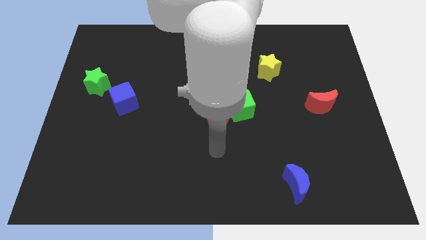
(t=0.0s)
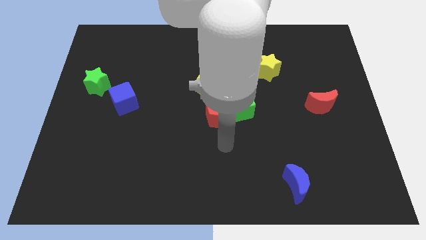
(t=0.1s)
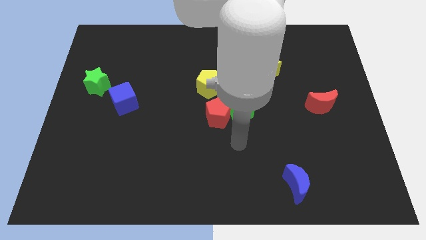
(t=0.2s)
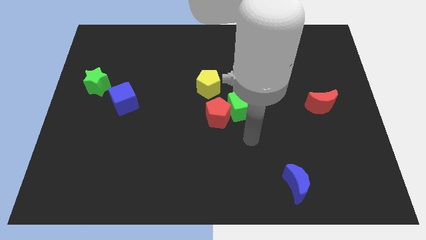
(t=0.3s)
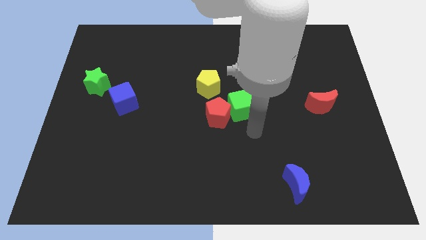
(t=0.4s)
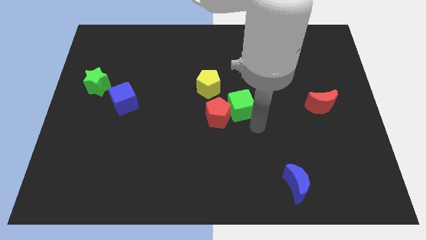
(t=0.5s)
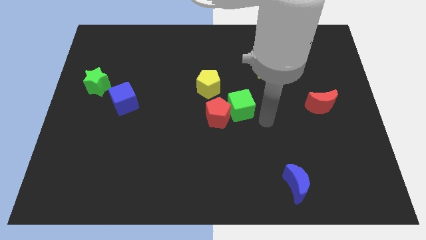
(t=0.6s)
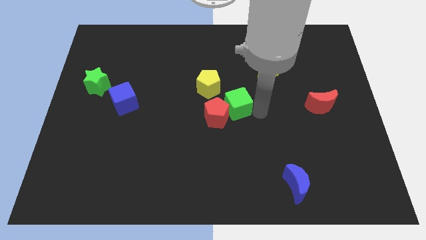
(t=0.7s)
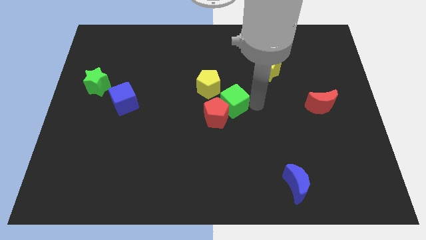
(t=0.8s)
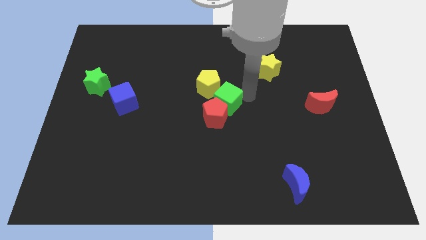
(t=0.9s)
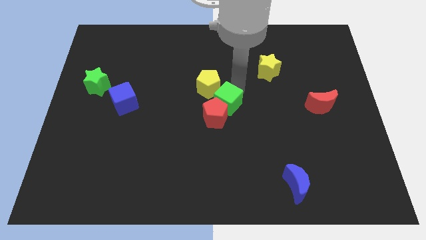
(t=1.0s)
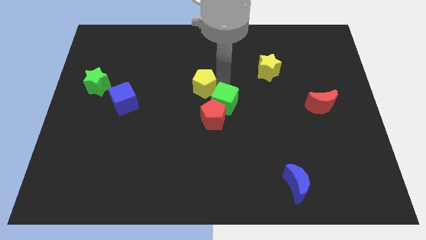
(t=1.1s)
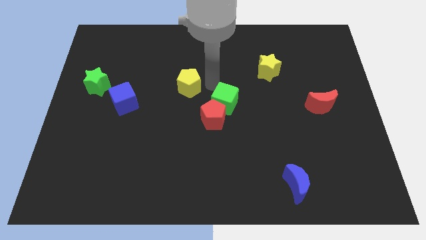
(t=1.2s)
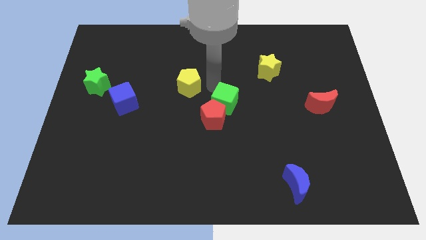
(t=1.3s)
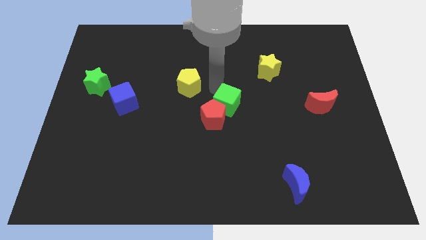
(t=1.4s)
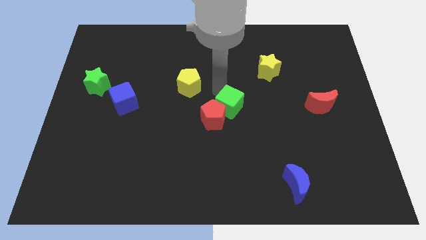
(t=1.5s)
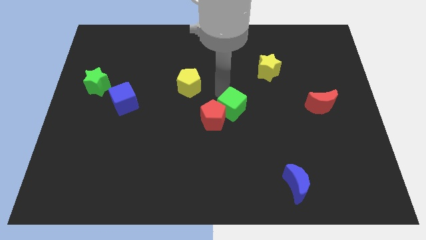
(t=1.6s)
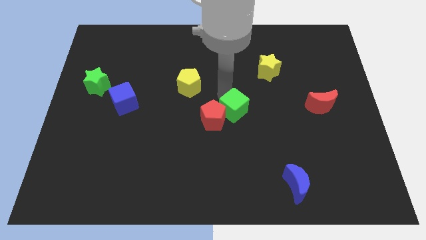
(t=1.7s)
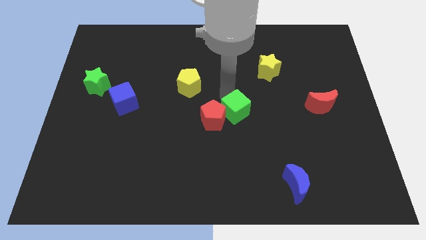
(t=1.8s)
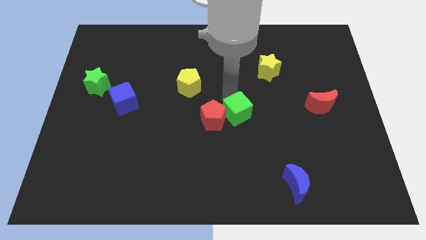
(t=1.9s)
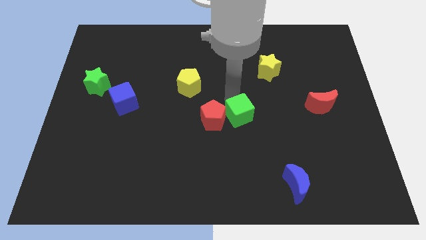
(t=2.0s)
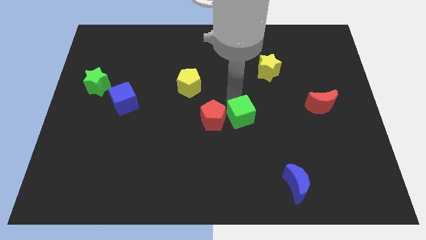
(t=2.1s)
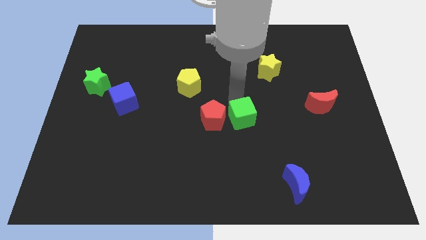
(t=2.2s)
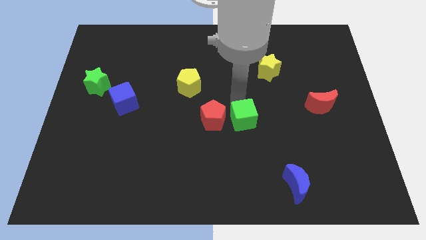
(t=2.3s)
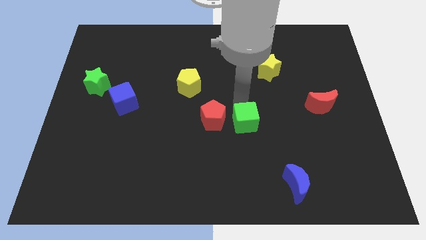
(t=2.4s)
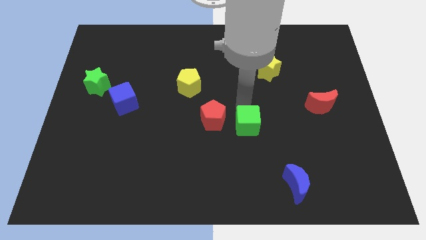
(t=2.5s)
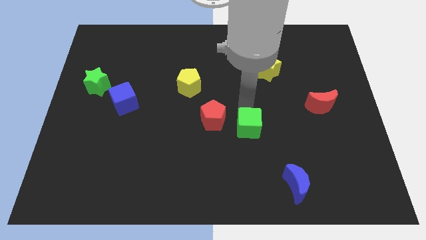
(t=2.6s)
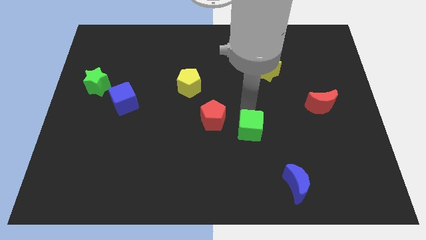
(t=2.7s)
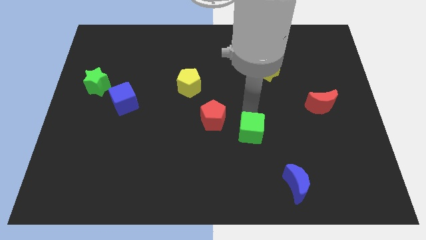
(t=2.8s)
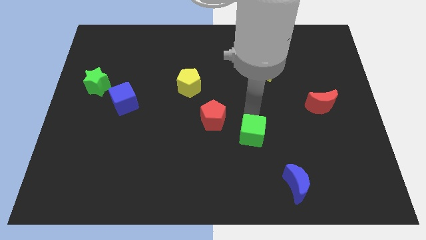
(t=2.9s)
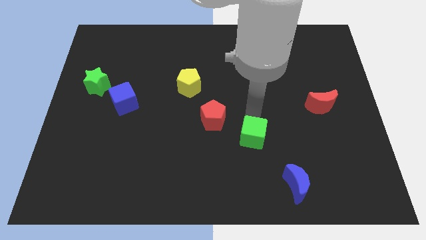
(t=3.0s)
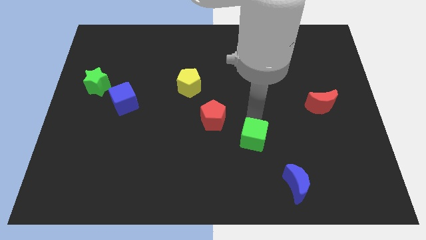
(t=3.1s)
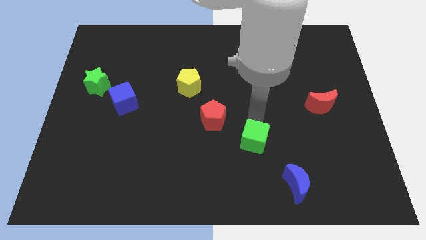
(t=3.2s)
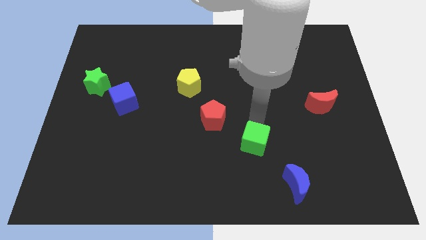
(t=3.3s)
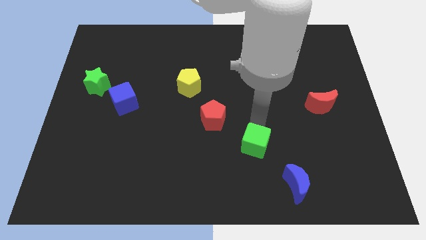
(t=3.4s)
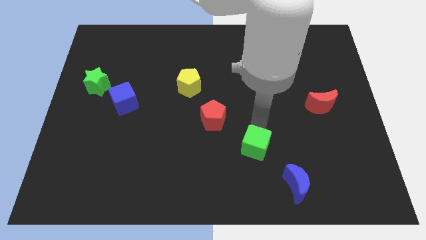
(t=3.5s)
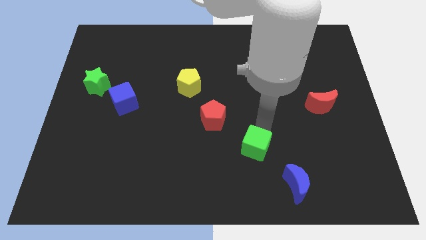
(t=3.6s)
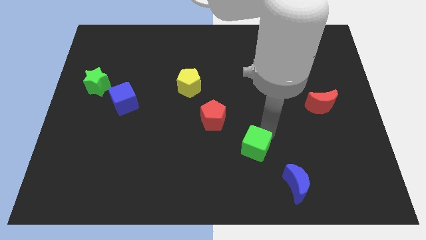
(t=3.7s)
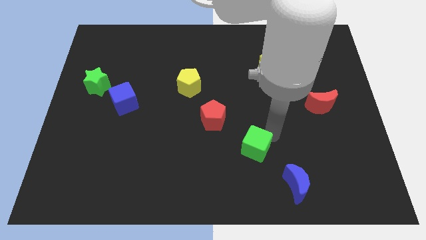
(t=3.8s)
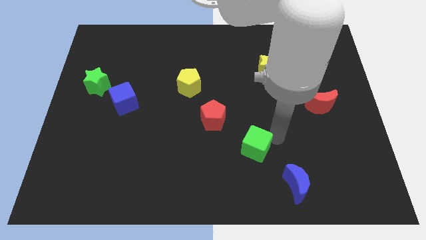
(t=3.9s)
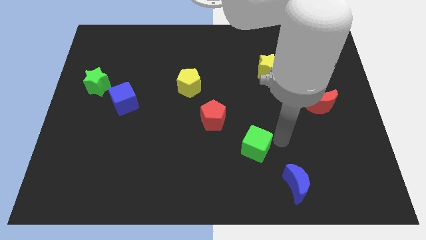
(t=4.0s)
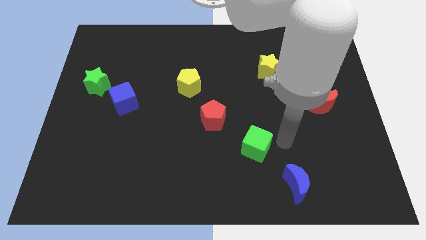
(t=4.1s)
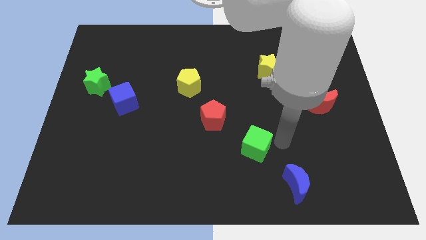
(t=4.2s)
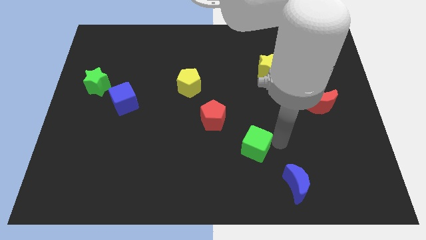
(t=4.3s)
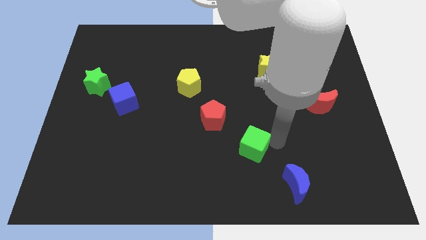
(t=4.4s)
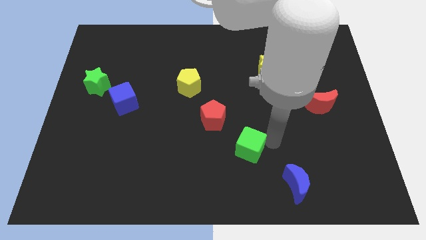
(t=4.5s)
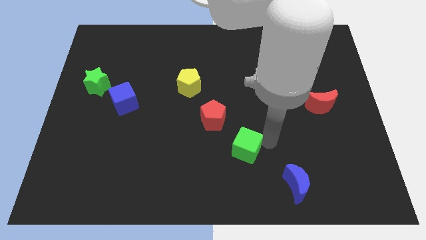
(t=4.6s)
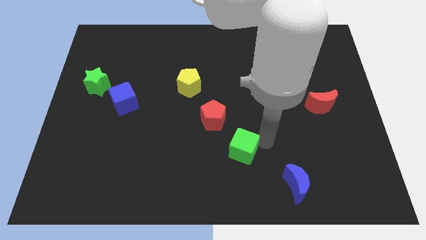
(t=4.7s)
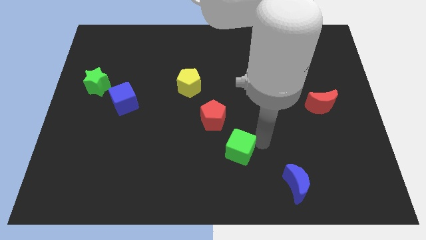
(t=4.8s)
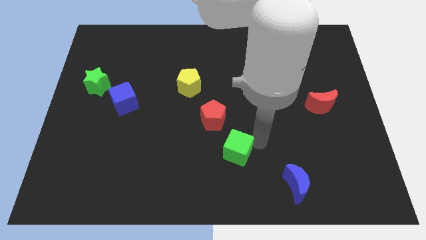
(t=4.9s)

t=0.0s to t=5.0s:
slide the green cube downwards and left diagonally a bit

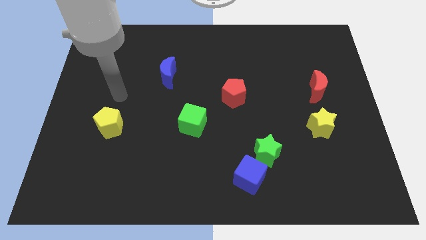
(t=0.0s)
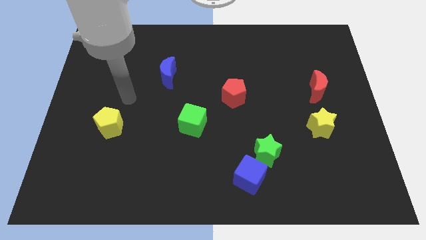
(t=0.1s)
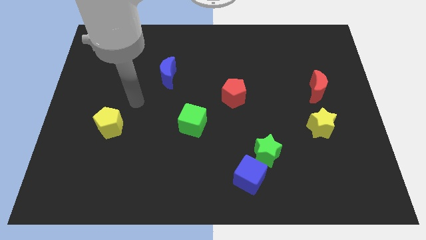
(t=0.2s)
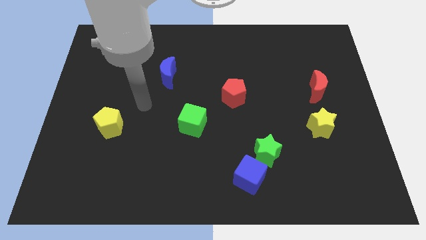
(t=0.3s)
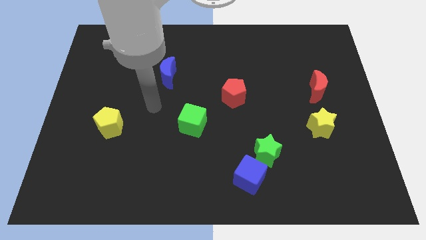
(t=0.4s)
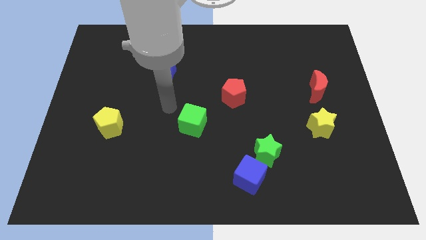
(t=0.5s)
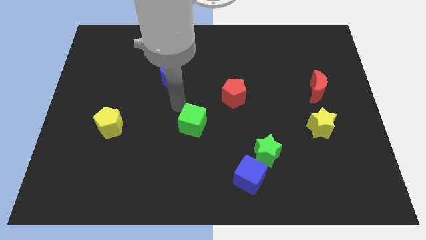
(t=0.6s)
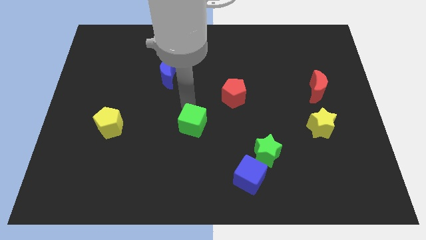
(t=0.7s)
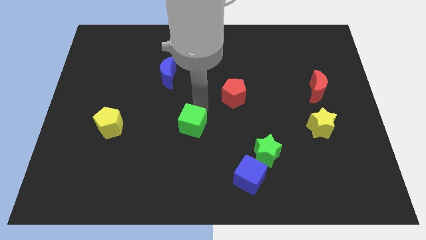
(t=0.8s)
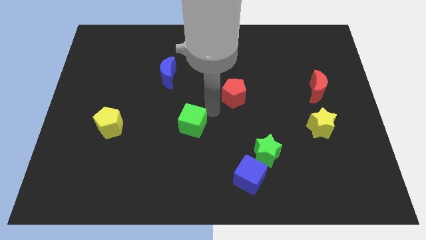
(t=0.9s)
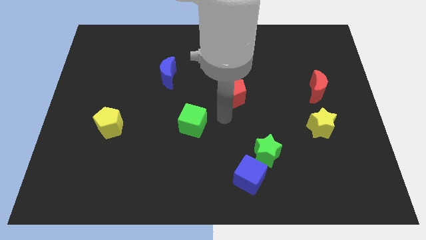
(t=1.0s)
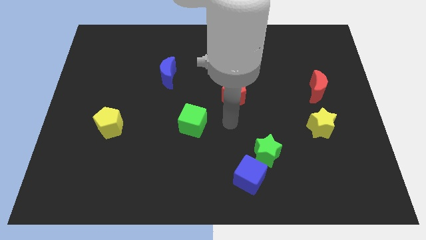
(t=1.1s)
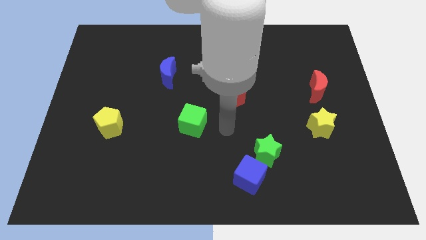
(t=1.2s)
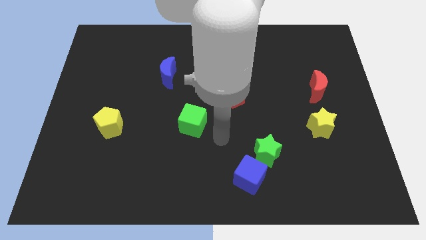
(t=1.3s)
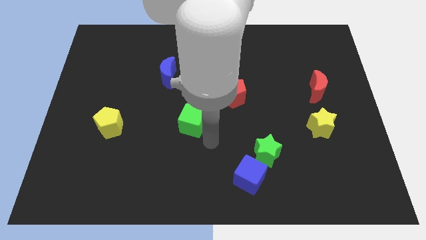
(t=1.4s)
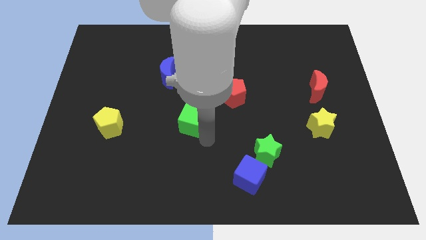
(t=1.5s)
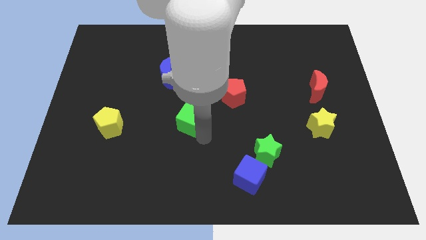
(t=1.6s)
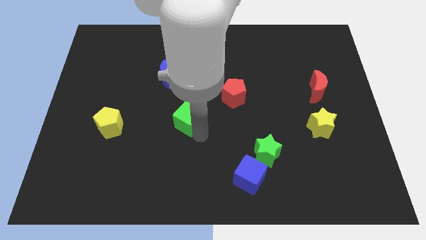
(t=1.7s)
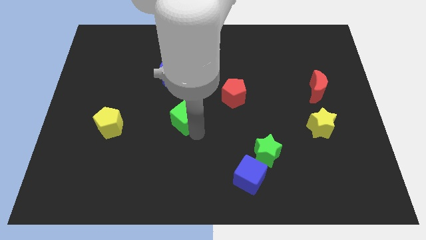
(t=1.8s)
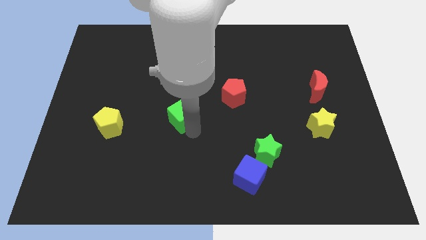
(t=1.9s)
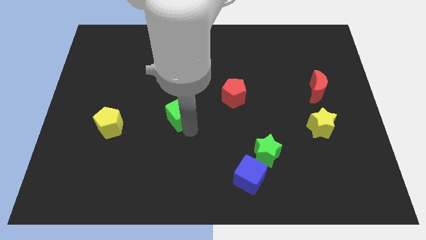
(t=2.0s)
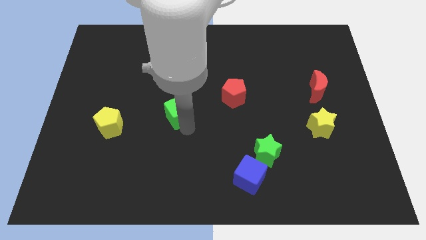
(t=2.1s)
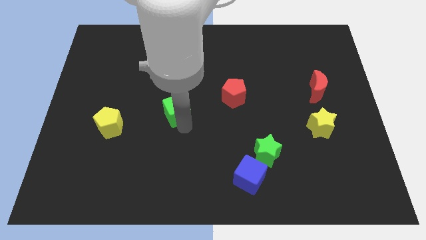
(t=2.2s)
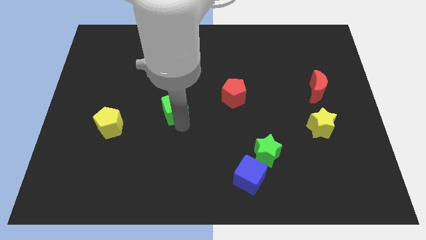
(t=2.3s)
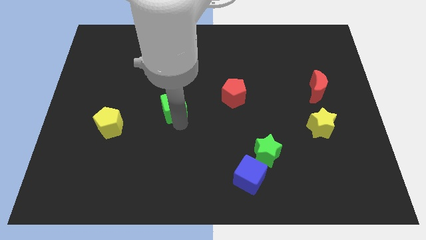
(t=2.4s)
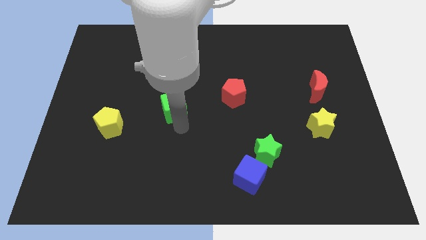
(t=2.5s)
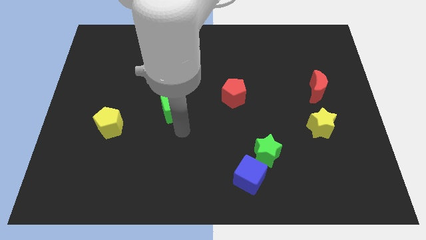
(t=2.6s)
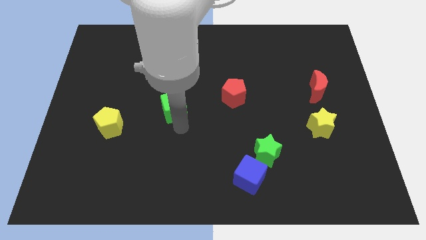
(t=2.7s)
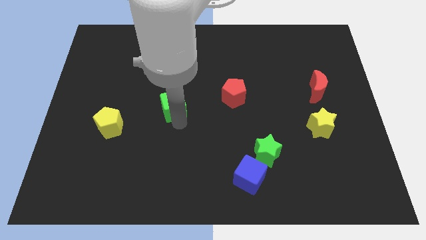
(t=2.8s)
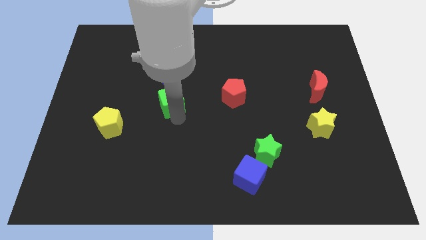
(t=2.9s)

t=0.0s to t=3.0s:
slide the green cube up and then to the left slightly

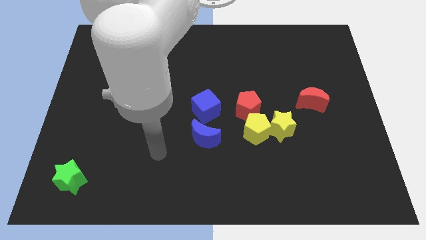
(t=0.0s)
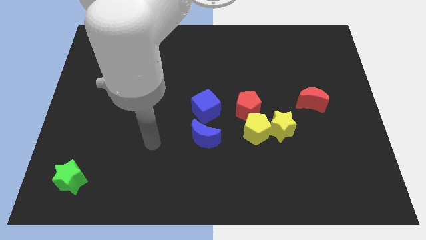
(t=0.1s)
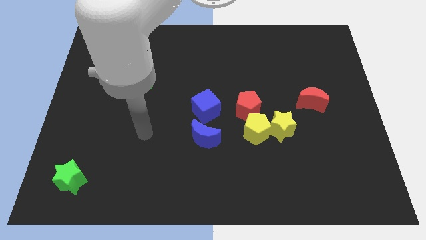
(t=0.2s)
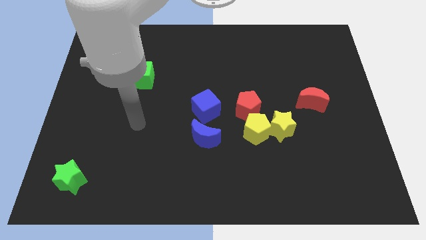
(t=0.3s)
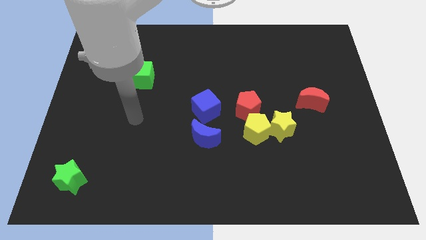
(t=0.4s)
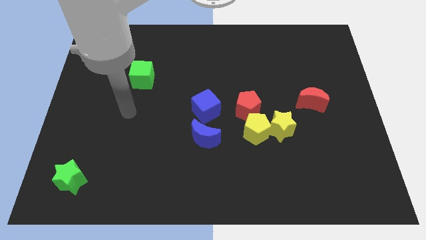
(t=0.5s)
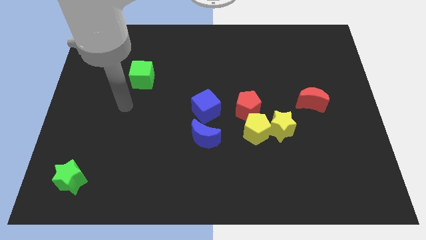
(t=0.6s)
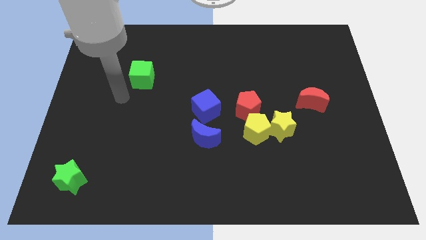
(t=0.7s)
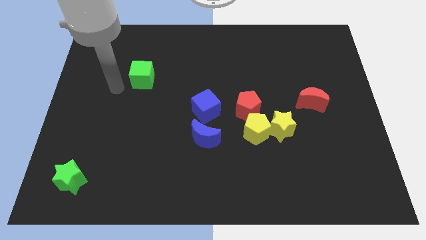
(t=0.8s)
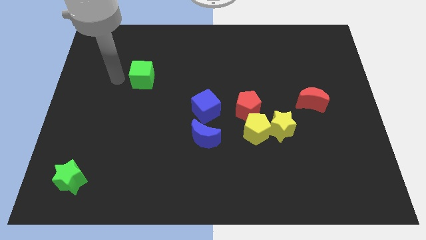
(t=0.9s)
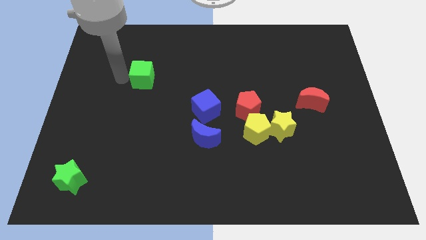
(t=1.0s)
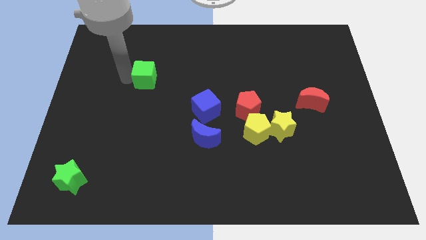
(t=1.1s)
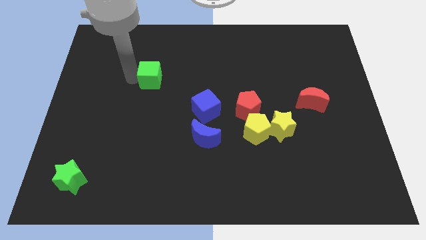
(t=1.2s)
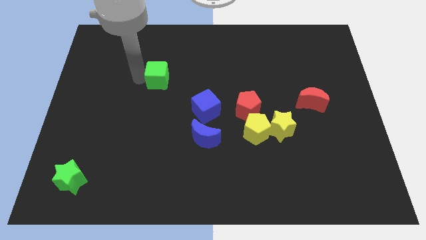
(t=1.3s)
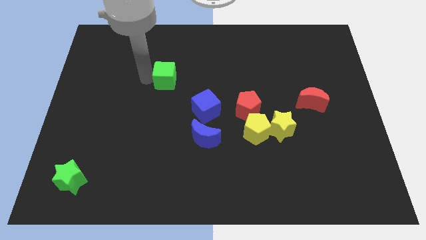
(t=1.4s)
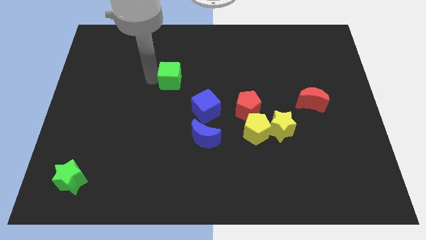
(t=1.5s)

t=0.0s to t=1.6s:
push the green cube to the right a little
